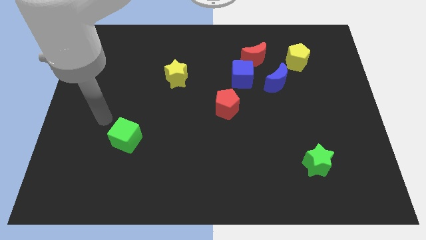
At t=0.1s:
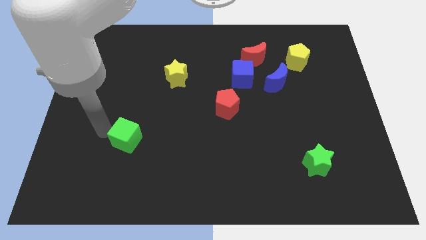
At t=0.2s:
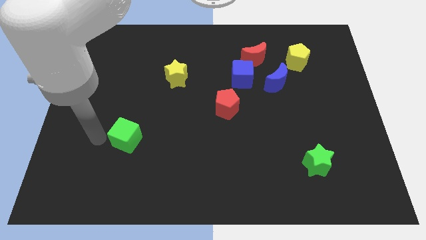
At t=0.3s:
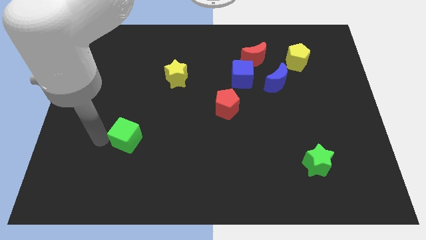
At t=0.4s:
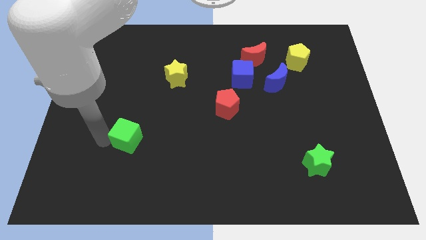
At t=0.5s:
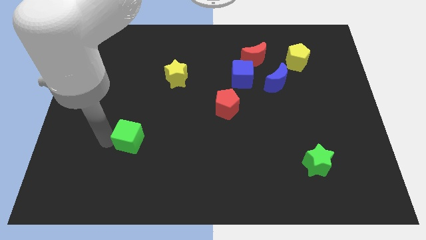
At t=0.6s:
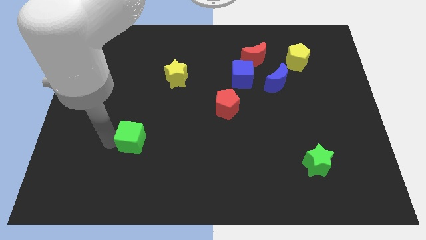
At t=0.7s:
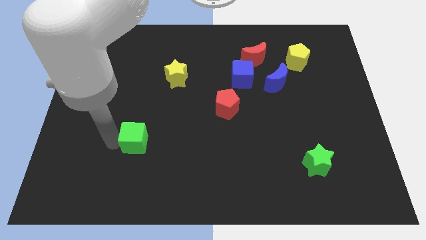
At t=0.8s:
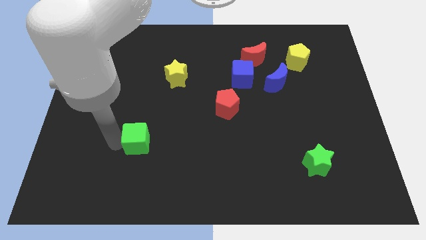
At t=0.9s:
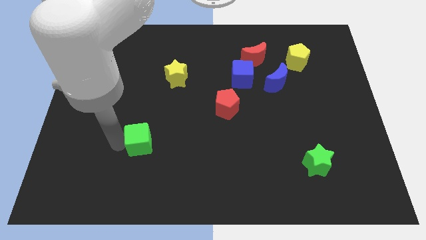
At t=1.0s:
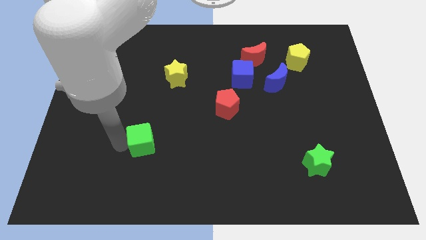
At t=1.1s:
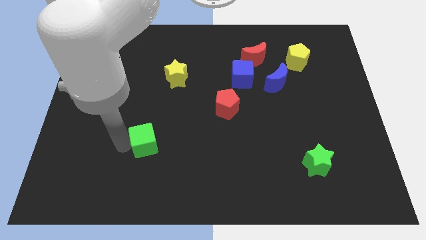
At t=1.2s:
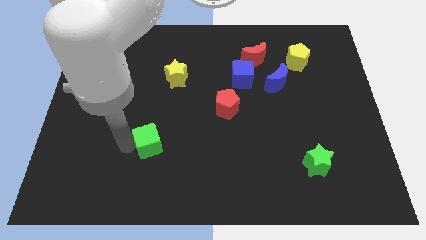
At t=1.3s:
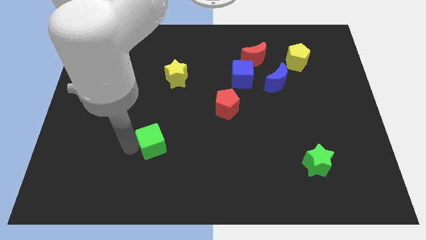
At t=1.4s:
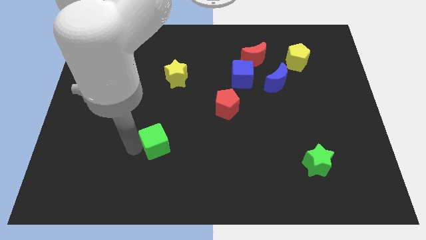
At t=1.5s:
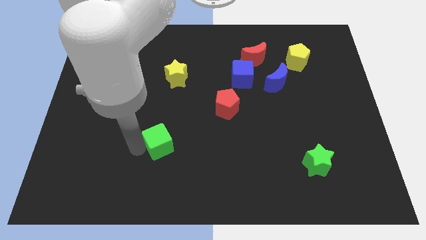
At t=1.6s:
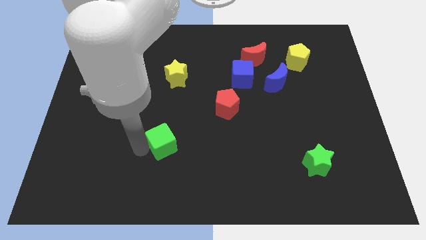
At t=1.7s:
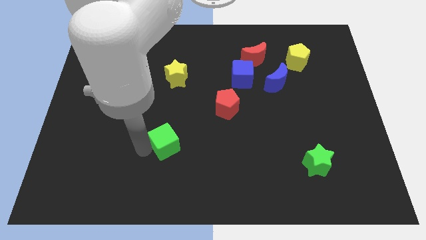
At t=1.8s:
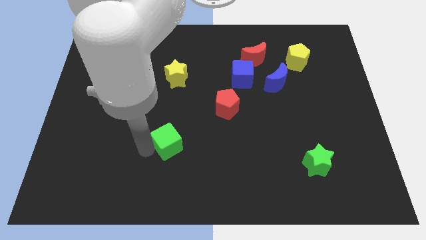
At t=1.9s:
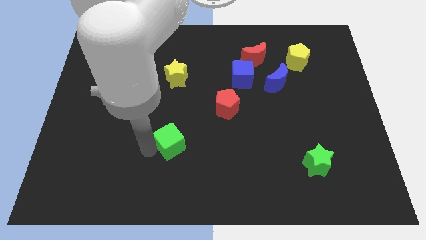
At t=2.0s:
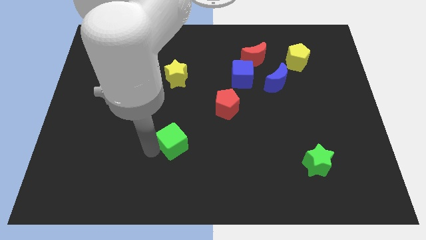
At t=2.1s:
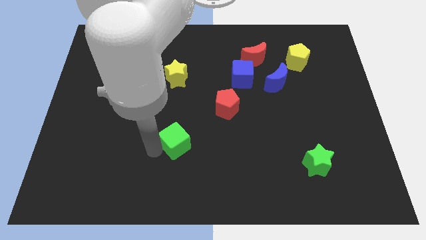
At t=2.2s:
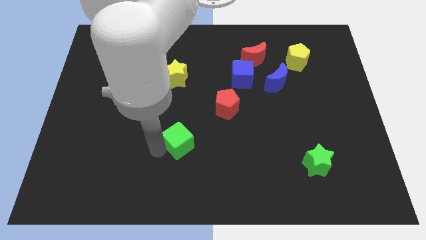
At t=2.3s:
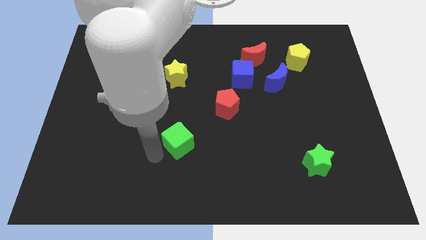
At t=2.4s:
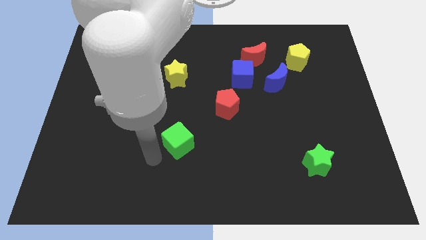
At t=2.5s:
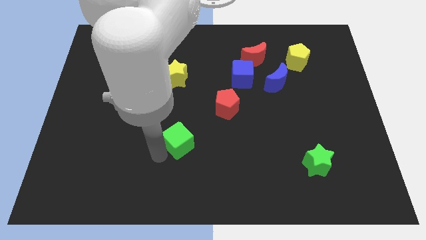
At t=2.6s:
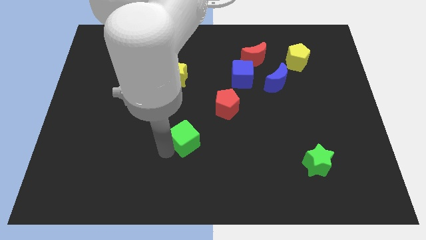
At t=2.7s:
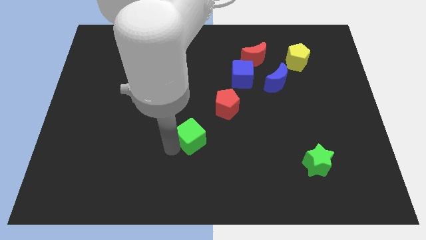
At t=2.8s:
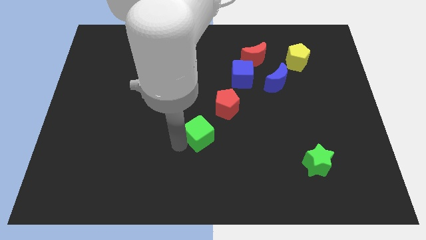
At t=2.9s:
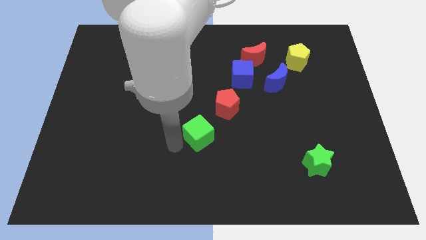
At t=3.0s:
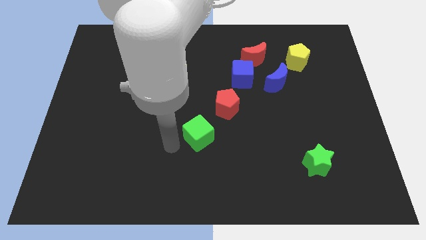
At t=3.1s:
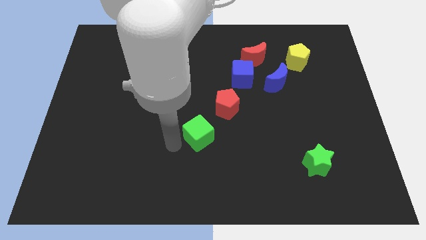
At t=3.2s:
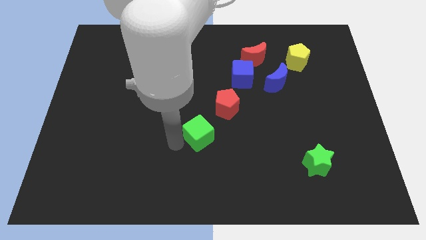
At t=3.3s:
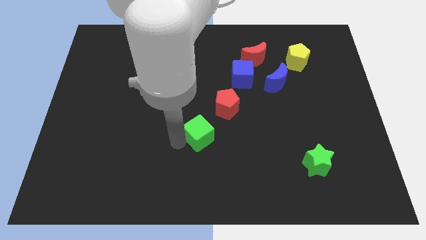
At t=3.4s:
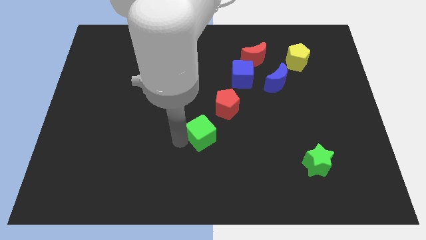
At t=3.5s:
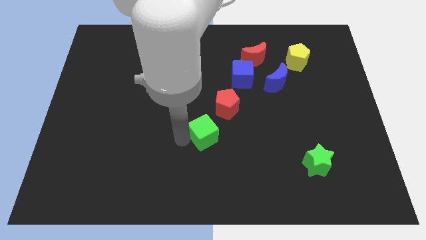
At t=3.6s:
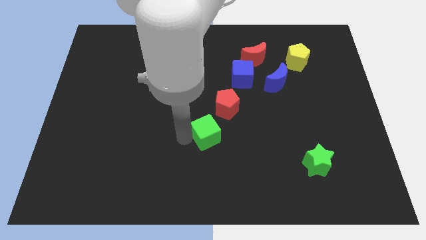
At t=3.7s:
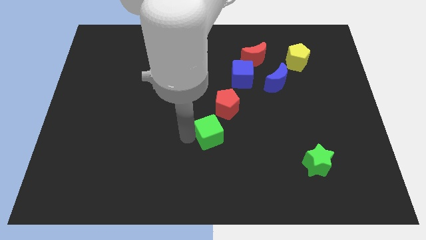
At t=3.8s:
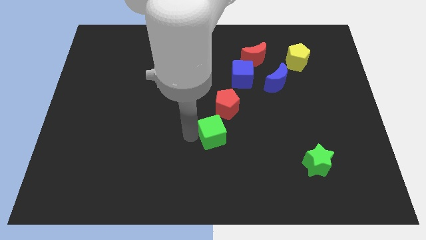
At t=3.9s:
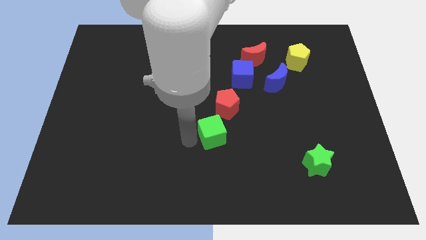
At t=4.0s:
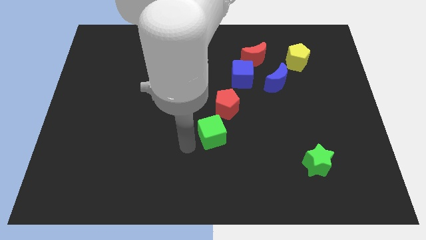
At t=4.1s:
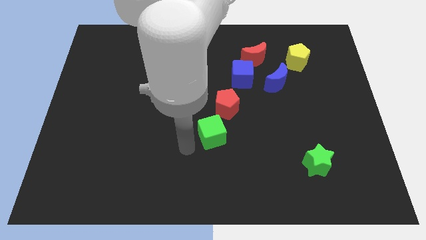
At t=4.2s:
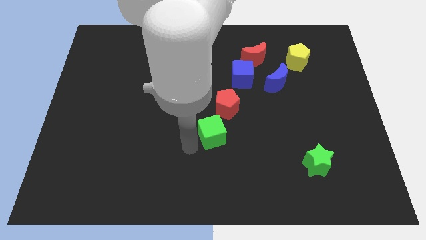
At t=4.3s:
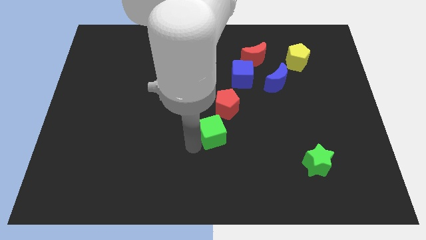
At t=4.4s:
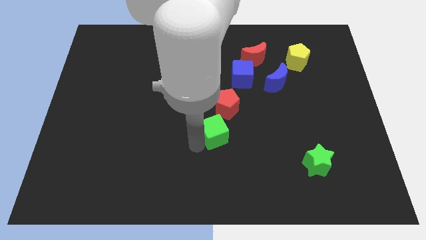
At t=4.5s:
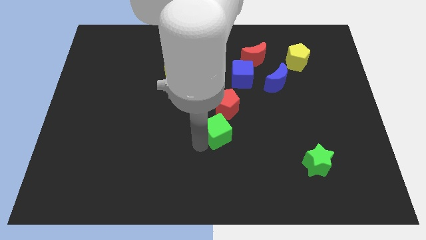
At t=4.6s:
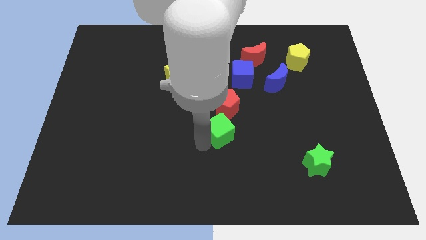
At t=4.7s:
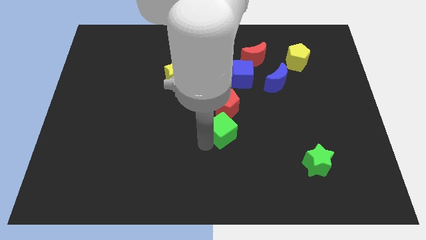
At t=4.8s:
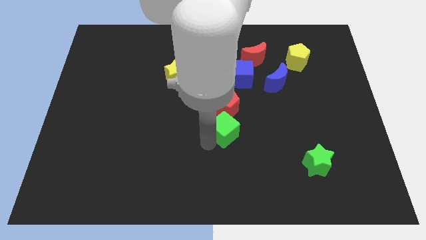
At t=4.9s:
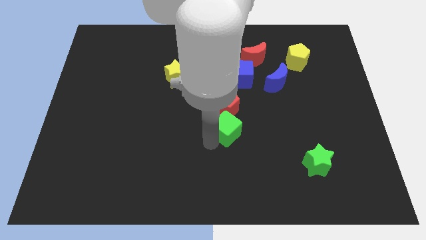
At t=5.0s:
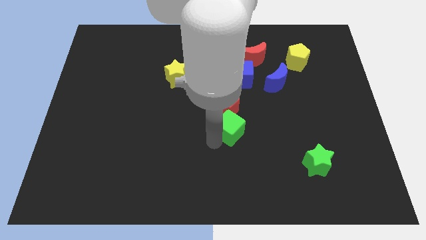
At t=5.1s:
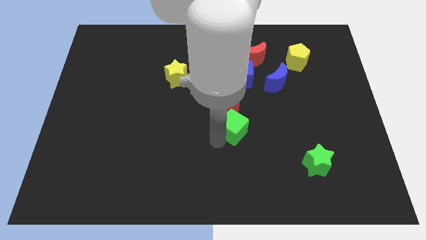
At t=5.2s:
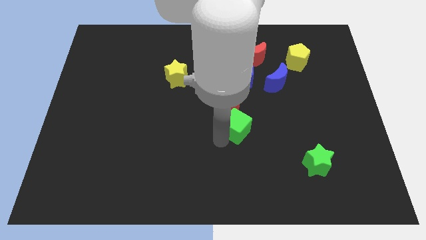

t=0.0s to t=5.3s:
slide the green cube to the bottom of the blue cube

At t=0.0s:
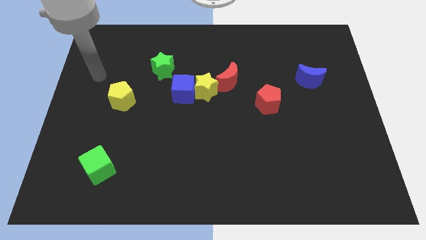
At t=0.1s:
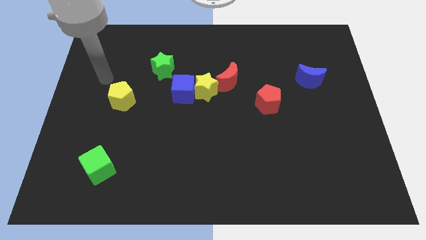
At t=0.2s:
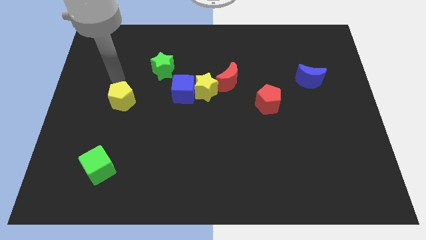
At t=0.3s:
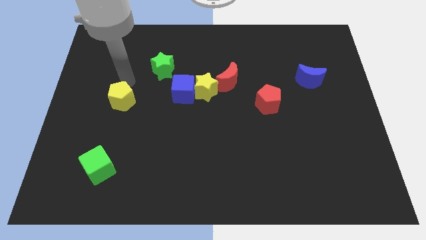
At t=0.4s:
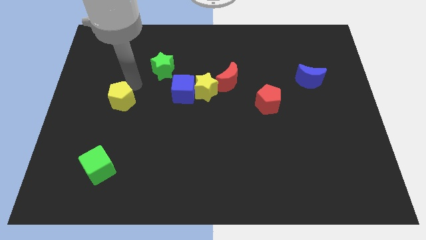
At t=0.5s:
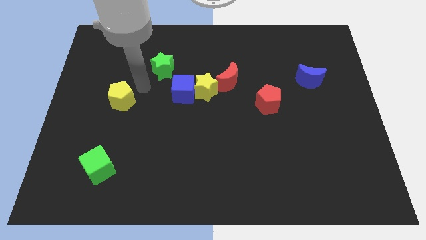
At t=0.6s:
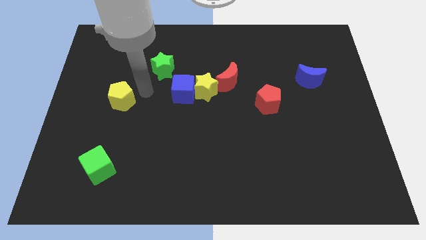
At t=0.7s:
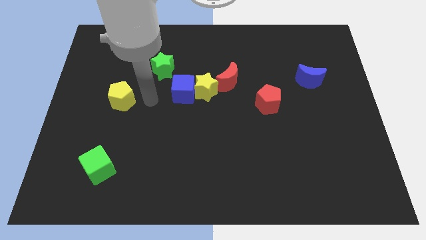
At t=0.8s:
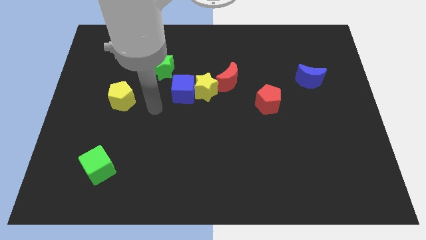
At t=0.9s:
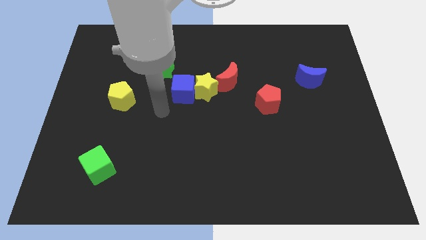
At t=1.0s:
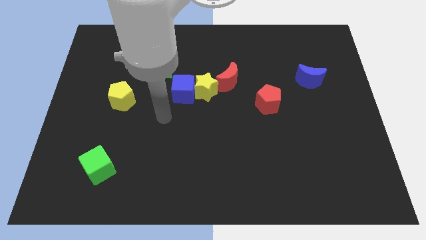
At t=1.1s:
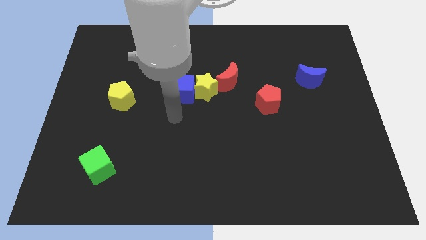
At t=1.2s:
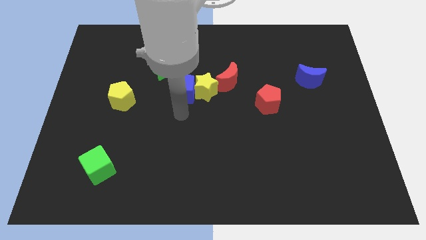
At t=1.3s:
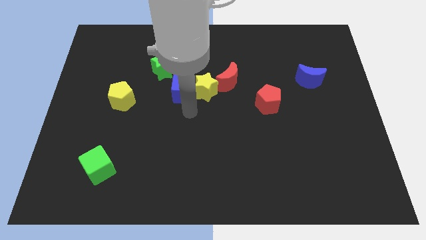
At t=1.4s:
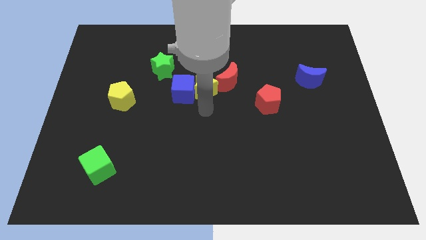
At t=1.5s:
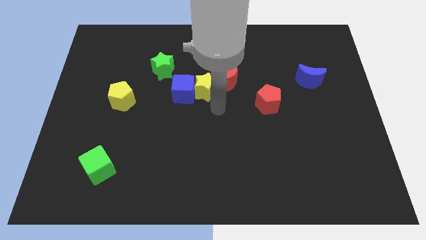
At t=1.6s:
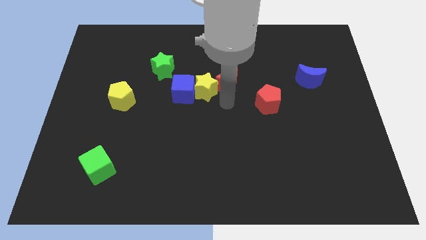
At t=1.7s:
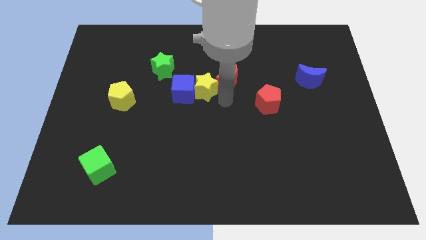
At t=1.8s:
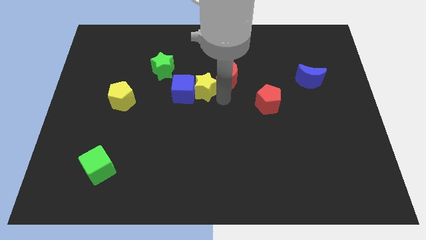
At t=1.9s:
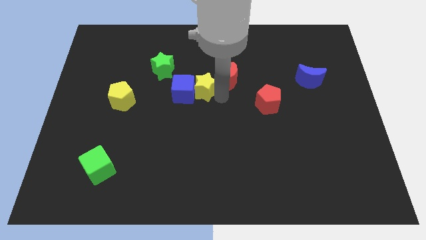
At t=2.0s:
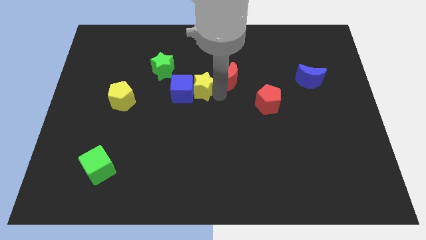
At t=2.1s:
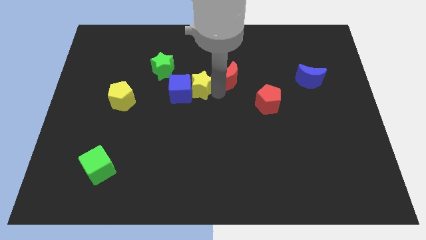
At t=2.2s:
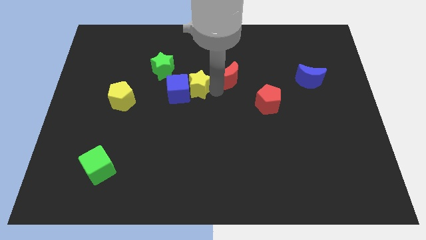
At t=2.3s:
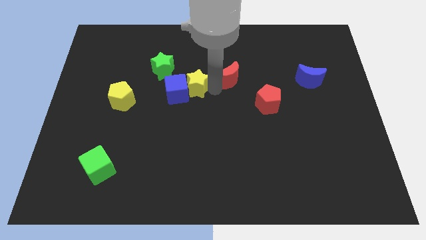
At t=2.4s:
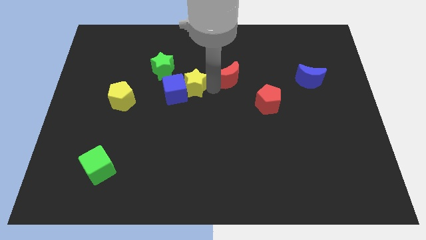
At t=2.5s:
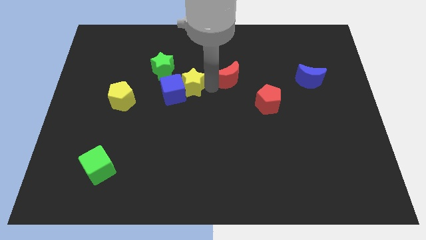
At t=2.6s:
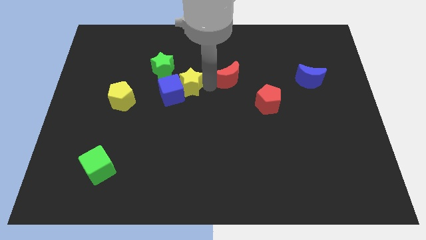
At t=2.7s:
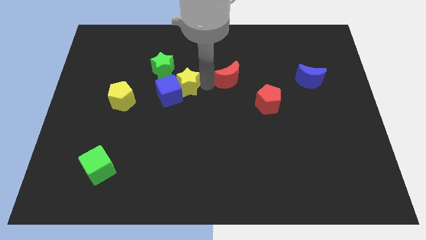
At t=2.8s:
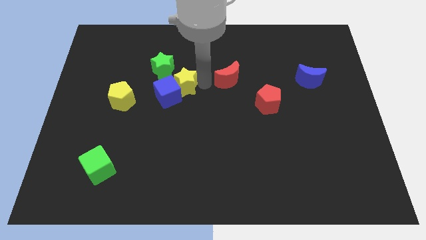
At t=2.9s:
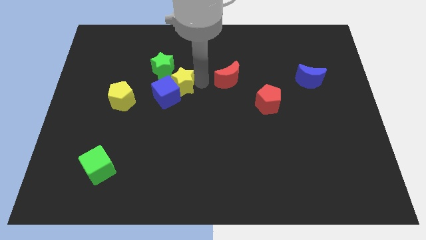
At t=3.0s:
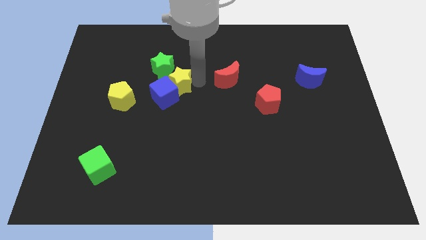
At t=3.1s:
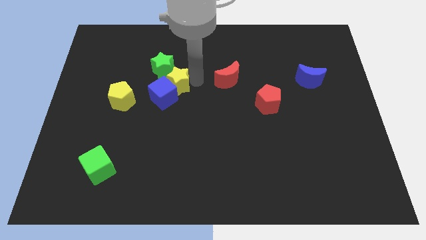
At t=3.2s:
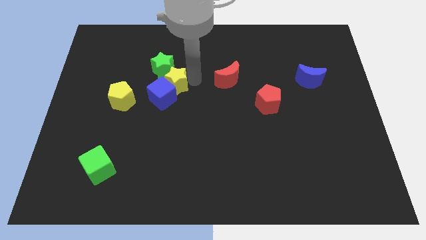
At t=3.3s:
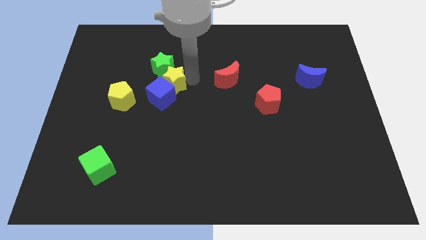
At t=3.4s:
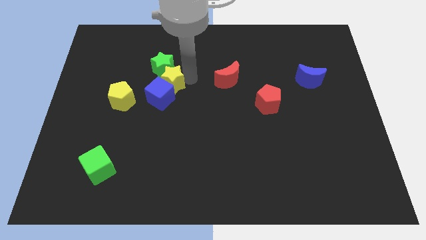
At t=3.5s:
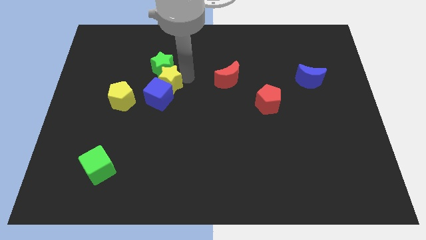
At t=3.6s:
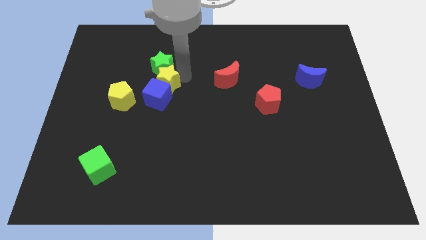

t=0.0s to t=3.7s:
push the yellow star to the bottom left side of the green star
